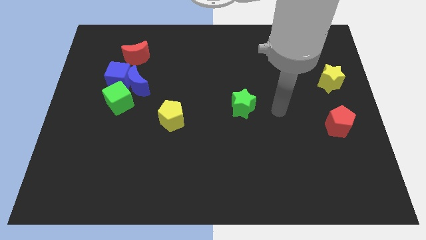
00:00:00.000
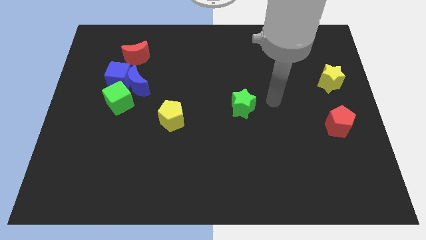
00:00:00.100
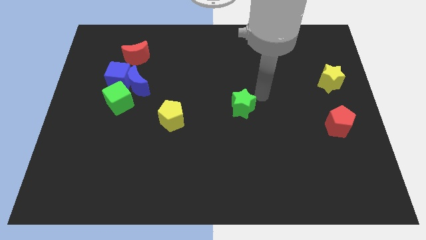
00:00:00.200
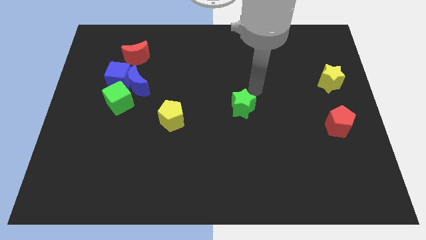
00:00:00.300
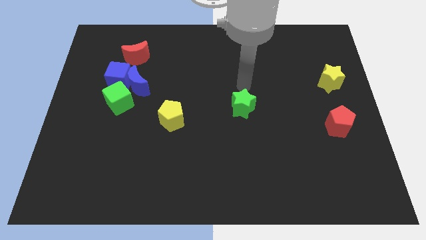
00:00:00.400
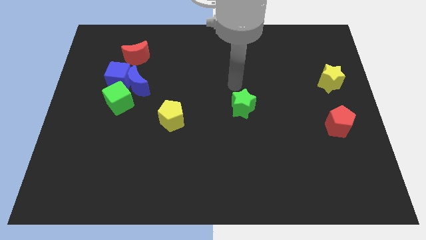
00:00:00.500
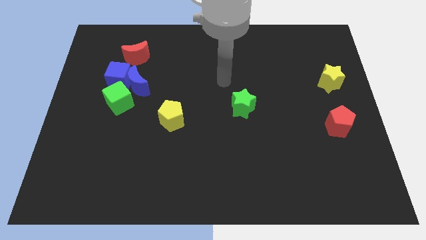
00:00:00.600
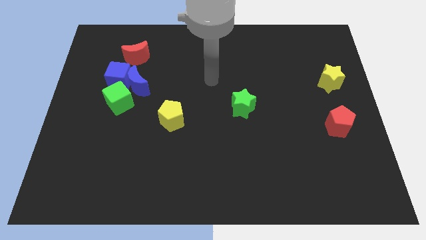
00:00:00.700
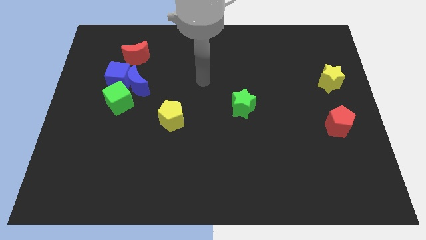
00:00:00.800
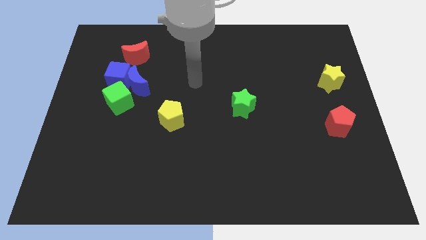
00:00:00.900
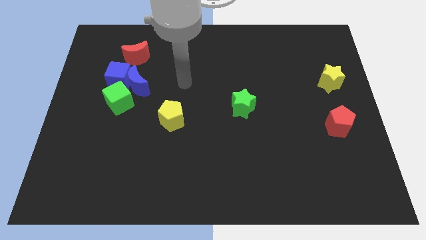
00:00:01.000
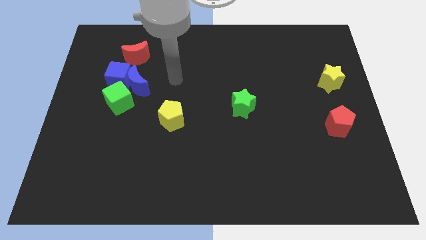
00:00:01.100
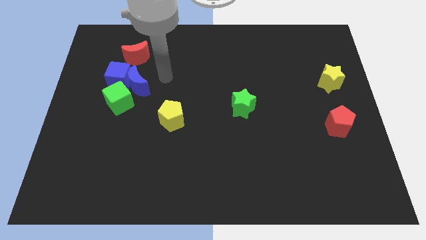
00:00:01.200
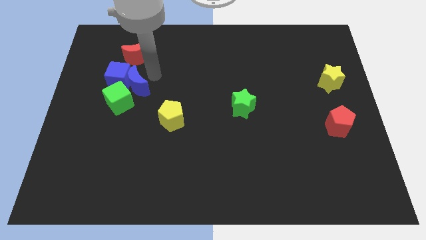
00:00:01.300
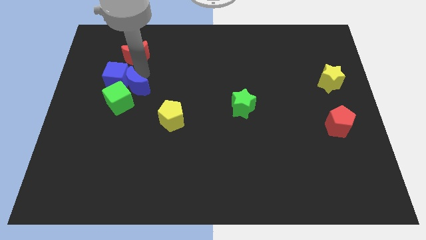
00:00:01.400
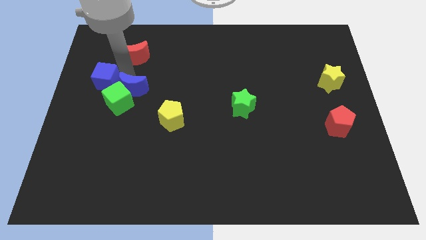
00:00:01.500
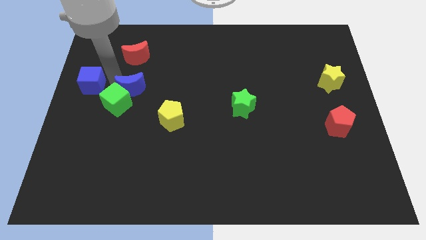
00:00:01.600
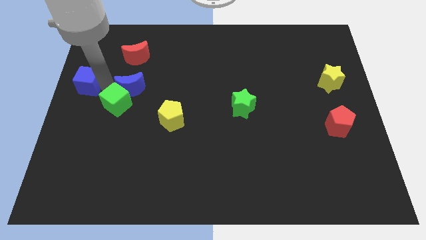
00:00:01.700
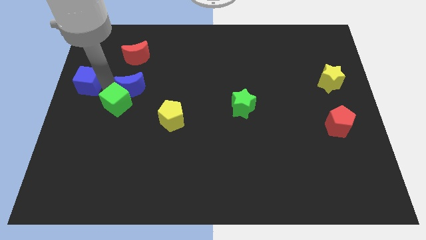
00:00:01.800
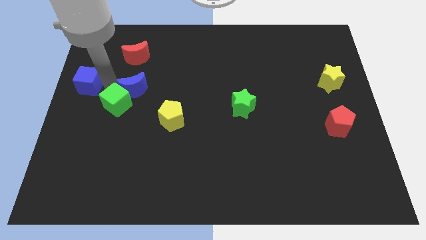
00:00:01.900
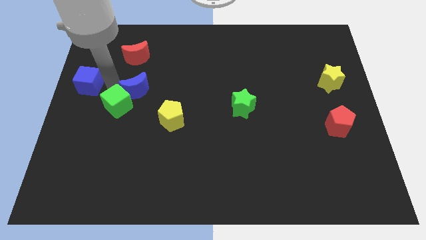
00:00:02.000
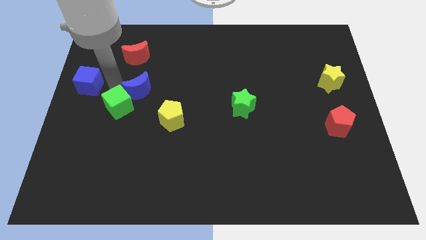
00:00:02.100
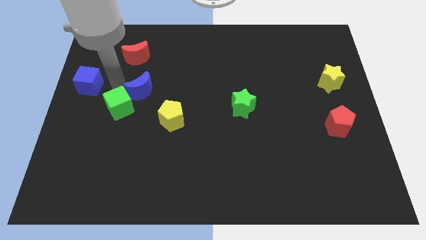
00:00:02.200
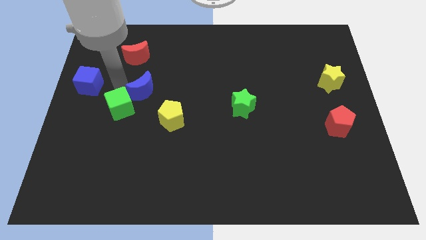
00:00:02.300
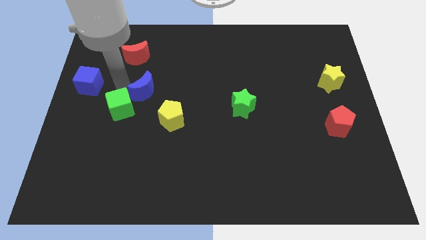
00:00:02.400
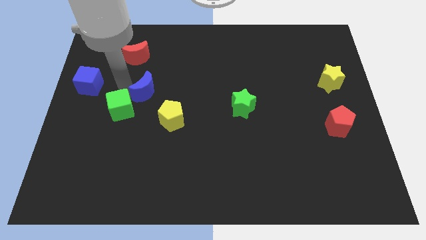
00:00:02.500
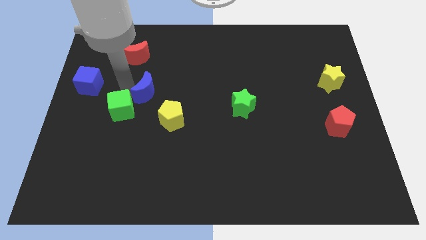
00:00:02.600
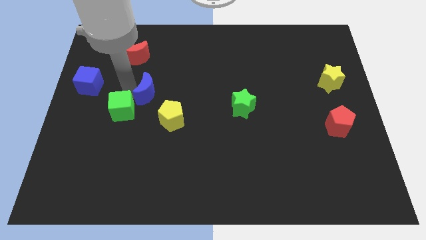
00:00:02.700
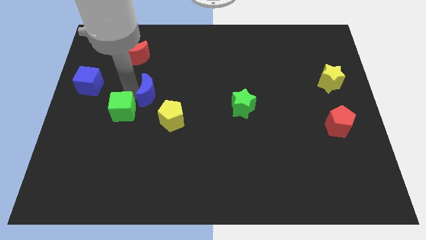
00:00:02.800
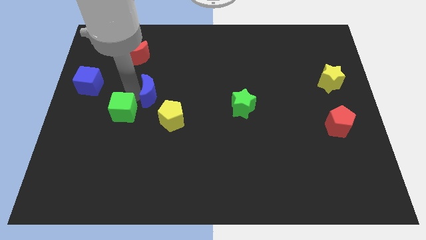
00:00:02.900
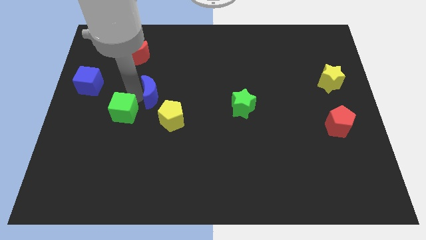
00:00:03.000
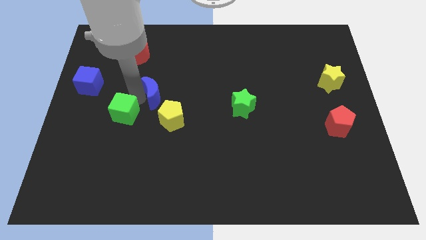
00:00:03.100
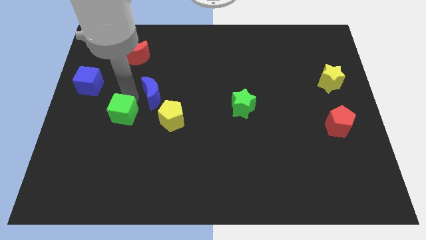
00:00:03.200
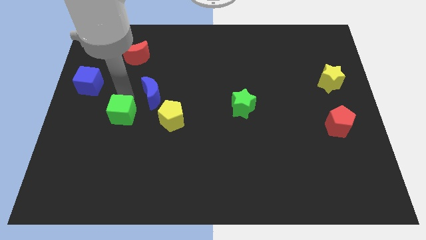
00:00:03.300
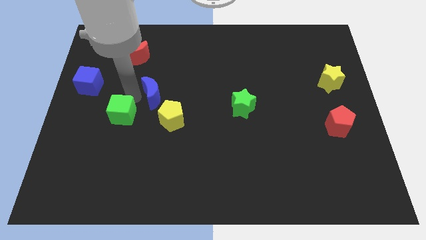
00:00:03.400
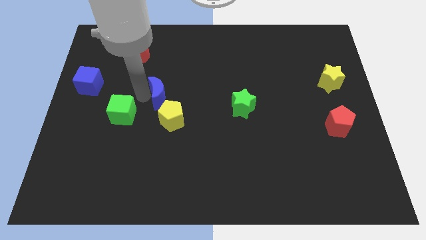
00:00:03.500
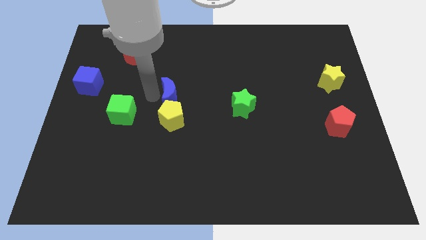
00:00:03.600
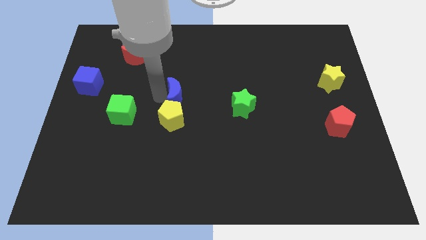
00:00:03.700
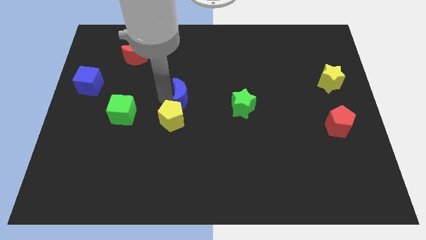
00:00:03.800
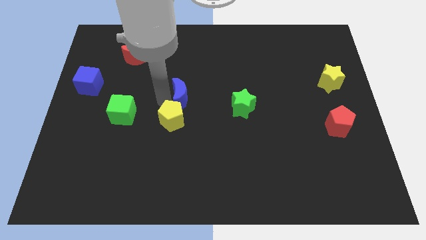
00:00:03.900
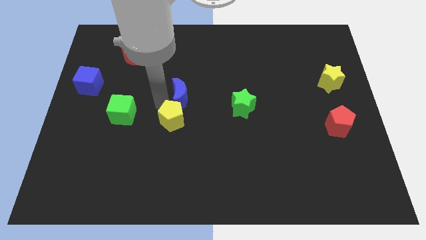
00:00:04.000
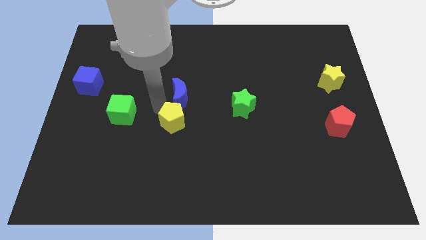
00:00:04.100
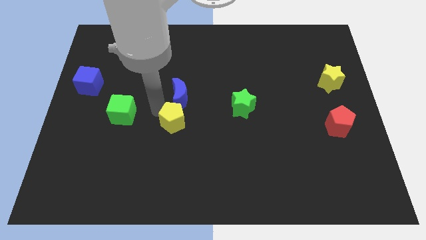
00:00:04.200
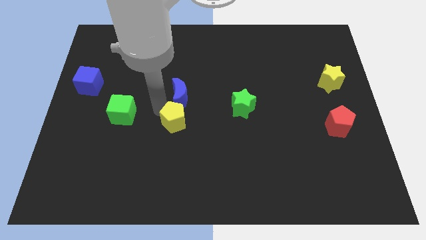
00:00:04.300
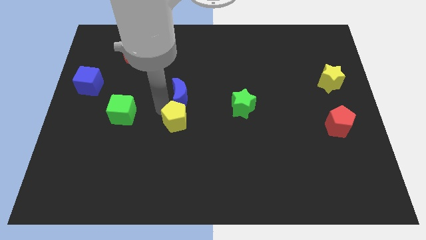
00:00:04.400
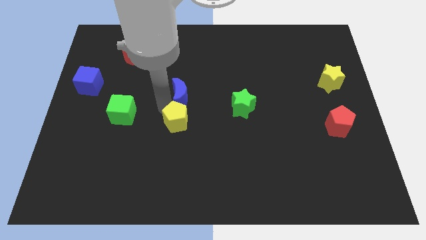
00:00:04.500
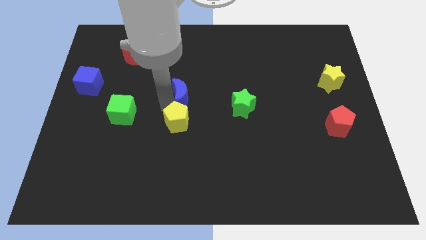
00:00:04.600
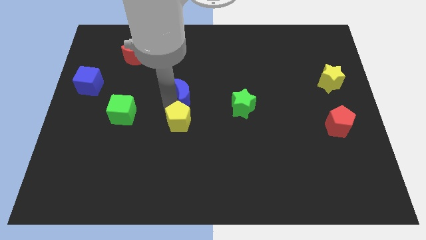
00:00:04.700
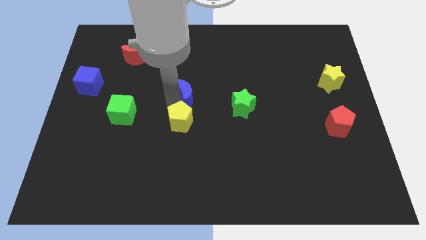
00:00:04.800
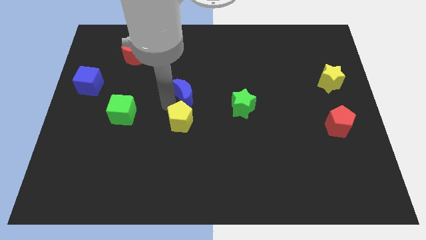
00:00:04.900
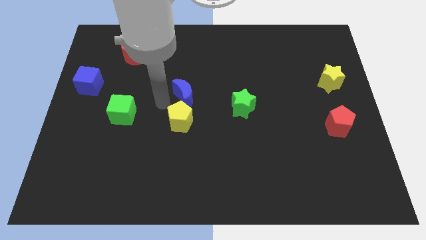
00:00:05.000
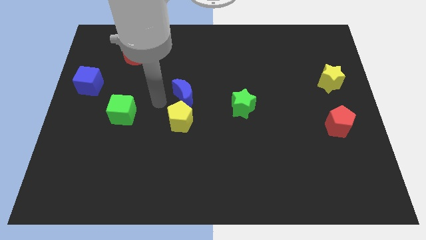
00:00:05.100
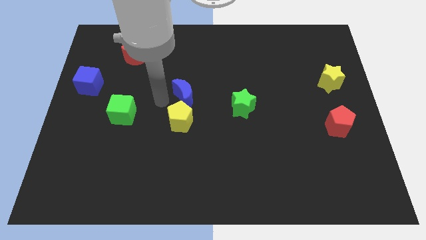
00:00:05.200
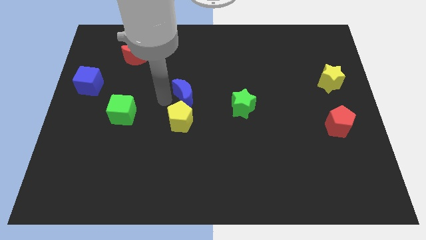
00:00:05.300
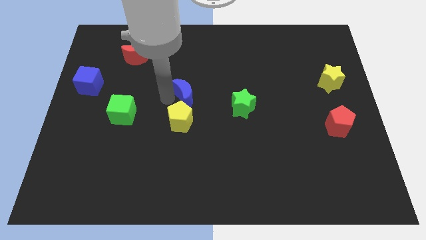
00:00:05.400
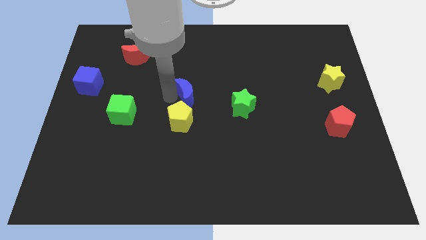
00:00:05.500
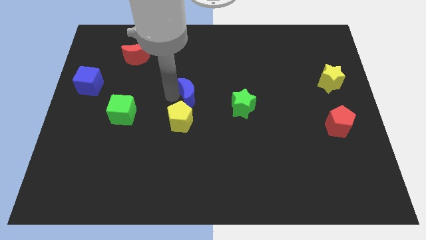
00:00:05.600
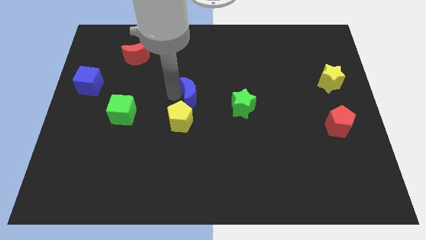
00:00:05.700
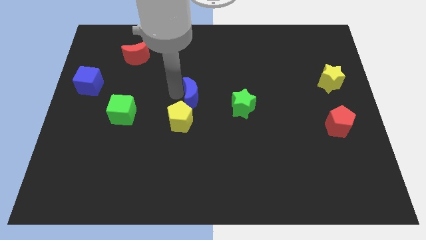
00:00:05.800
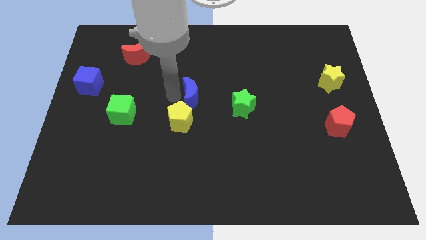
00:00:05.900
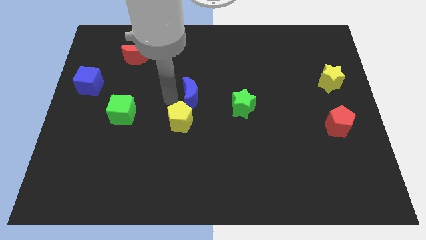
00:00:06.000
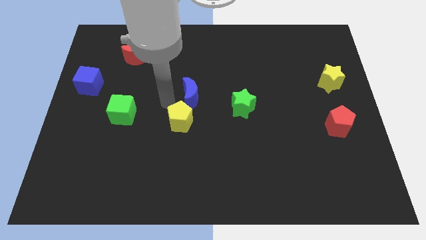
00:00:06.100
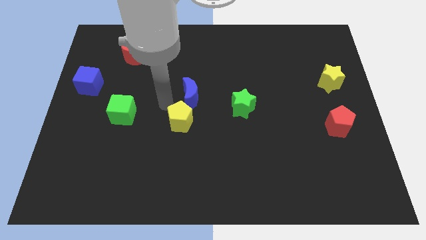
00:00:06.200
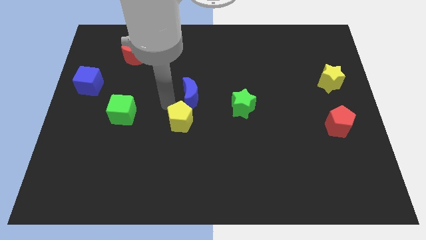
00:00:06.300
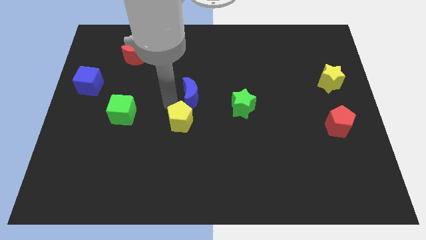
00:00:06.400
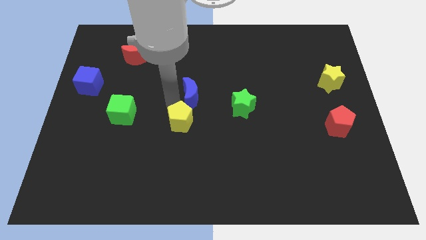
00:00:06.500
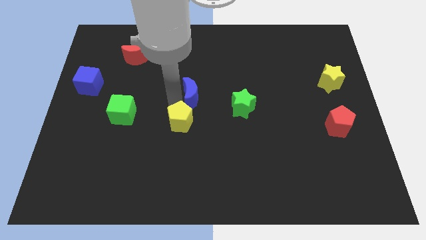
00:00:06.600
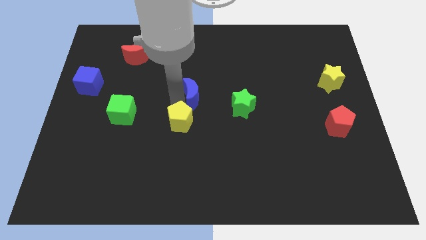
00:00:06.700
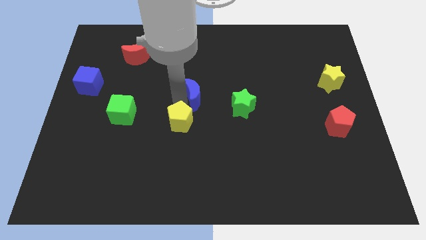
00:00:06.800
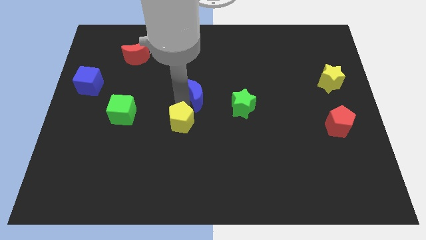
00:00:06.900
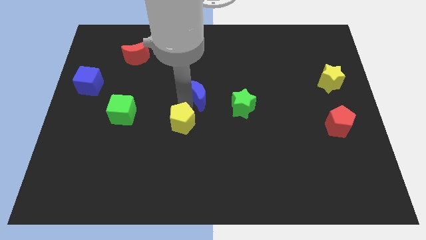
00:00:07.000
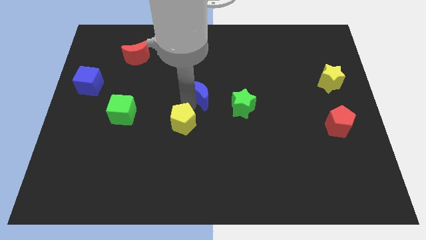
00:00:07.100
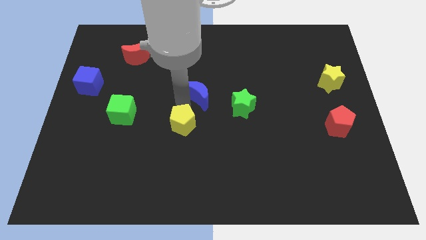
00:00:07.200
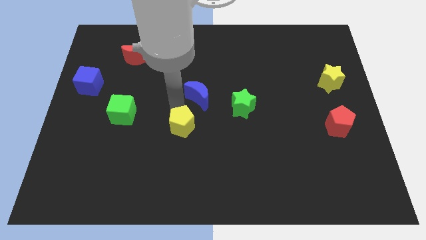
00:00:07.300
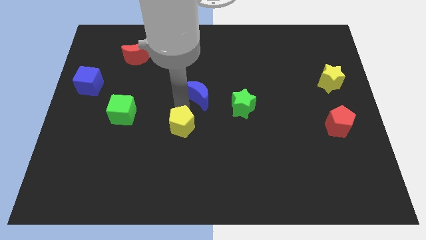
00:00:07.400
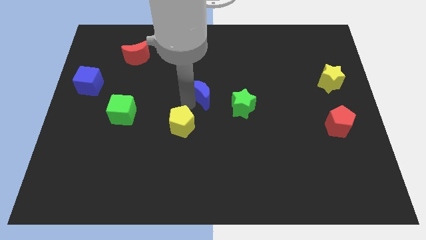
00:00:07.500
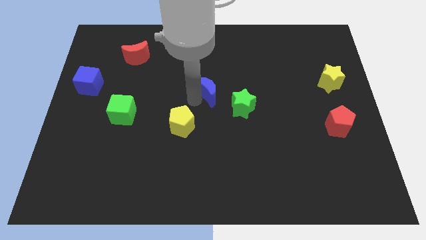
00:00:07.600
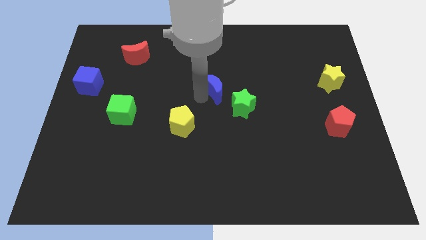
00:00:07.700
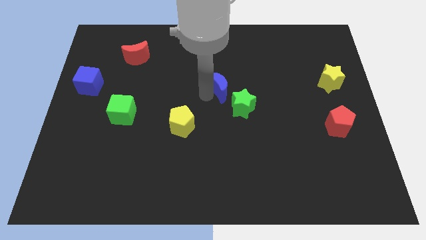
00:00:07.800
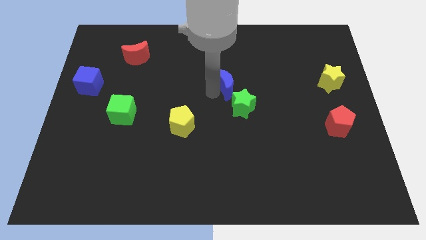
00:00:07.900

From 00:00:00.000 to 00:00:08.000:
slide the blue moon above the green star
